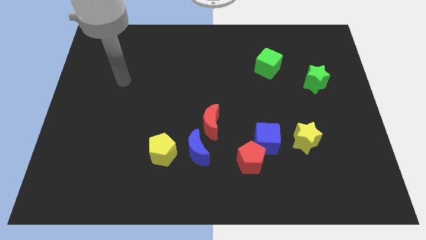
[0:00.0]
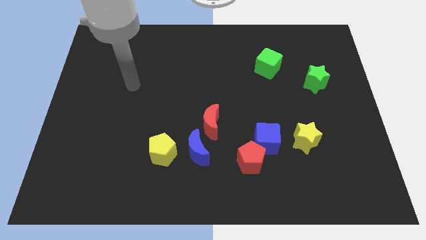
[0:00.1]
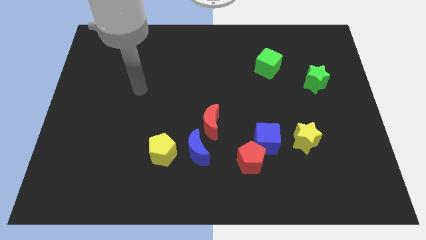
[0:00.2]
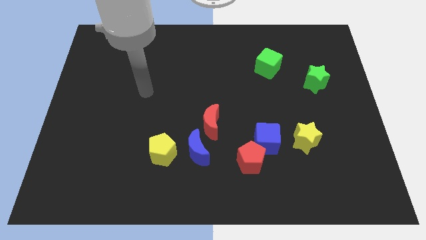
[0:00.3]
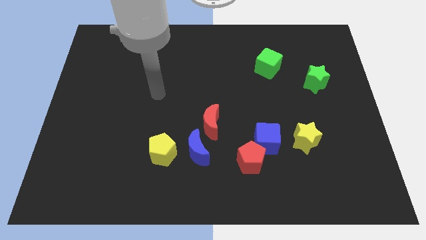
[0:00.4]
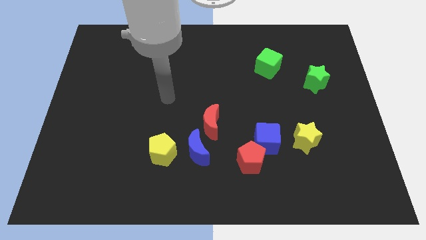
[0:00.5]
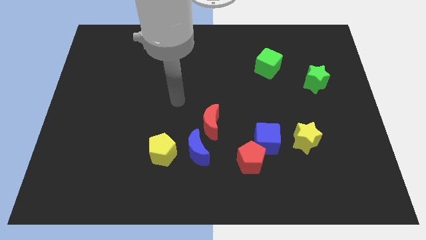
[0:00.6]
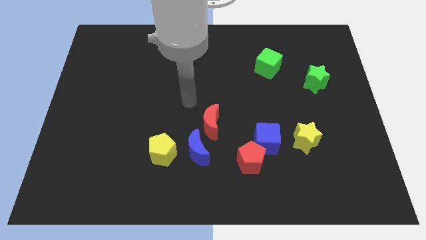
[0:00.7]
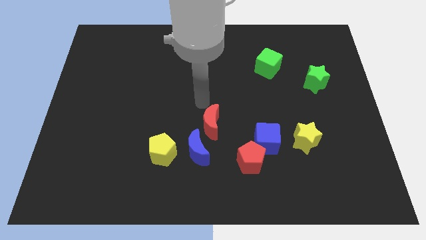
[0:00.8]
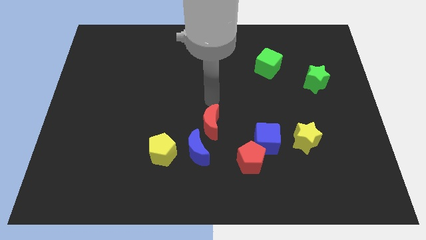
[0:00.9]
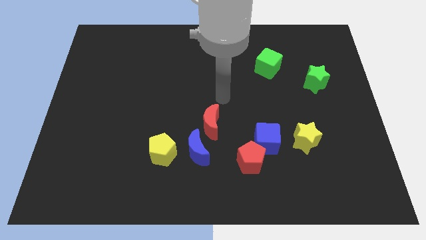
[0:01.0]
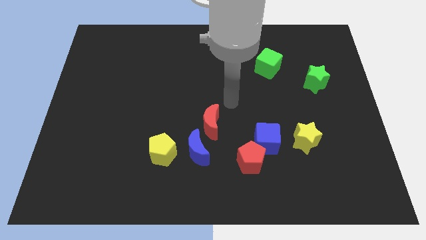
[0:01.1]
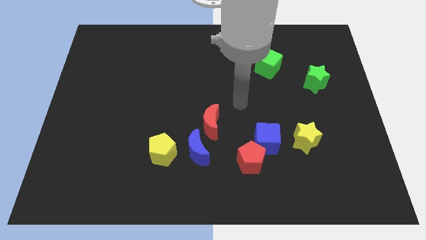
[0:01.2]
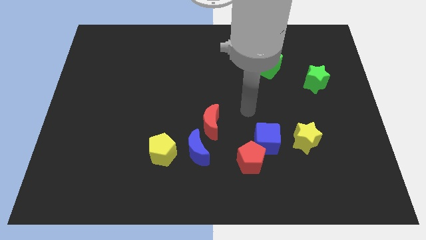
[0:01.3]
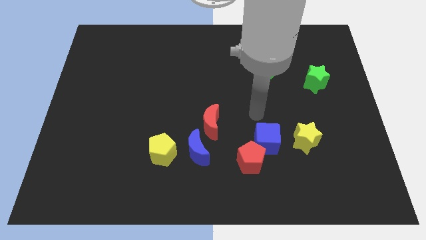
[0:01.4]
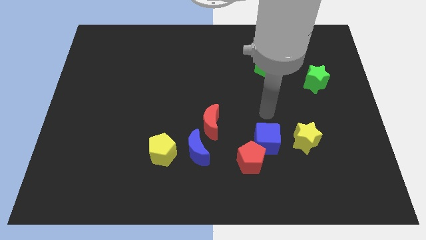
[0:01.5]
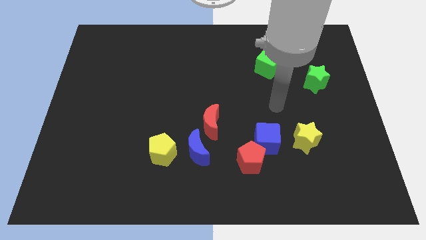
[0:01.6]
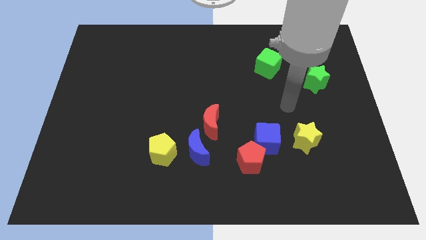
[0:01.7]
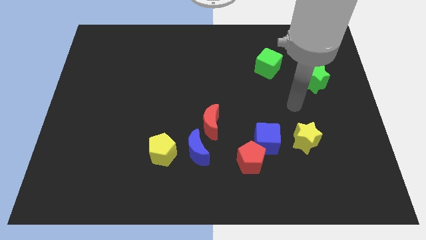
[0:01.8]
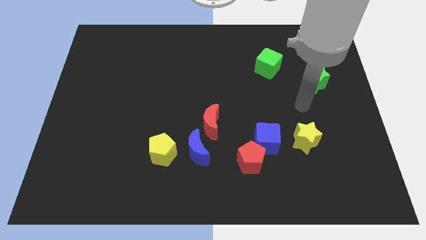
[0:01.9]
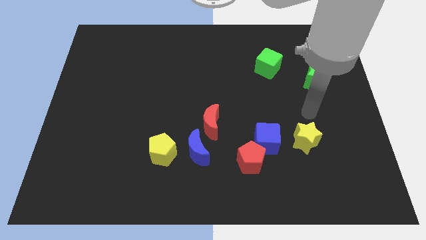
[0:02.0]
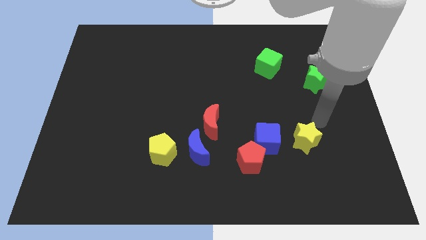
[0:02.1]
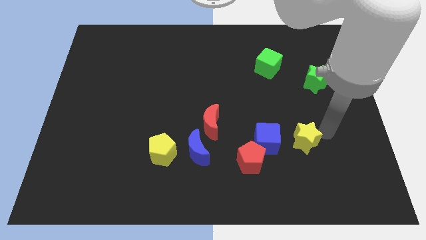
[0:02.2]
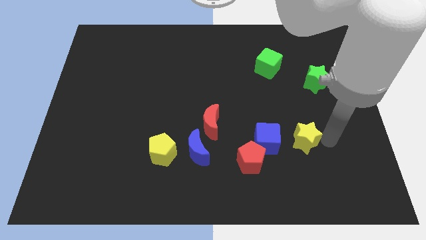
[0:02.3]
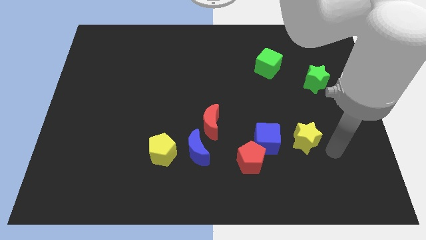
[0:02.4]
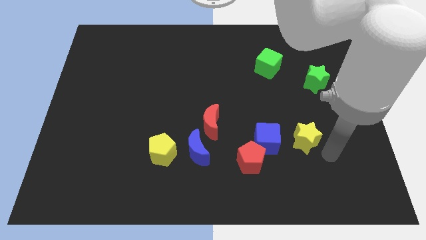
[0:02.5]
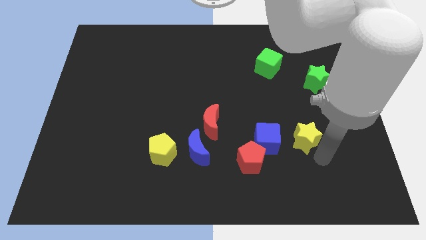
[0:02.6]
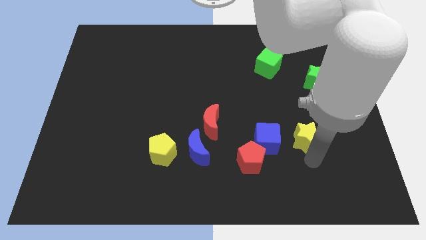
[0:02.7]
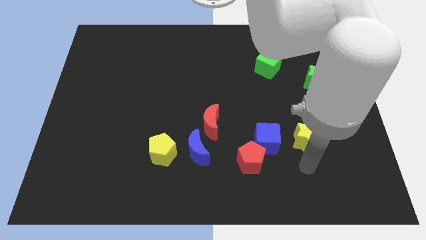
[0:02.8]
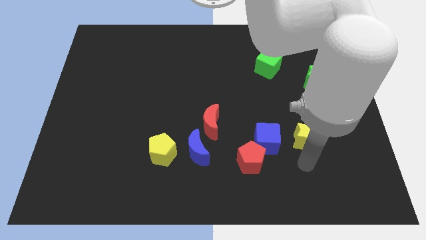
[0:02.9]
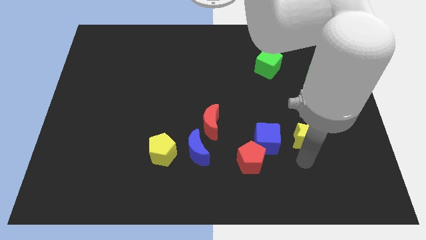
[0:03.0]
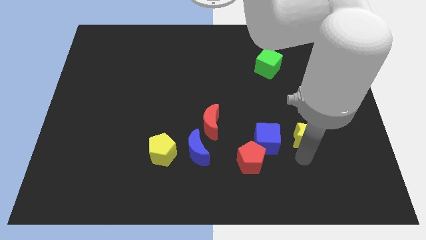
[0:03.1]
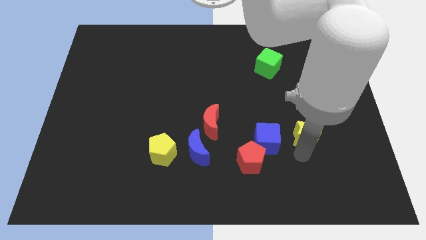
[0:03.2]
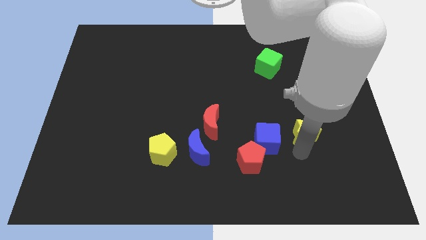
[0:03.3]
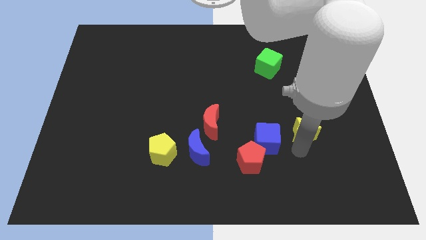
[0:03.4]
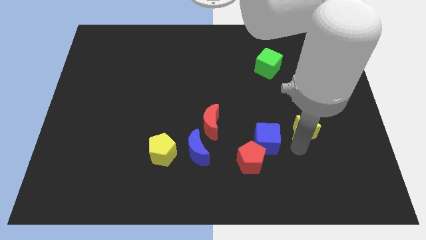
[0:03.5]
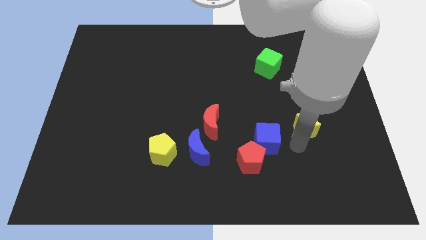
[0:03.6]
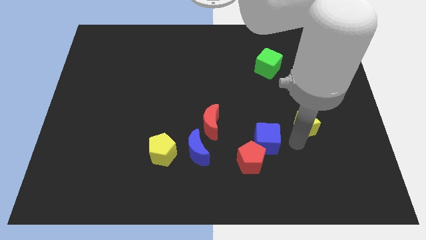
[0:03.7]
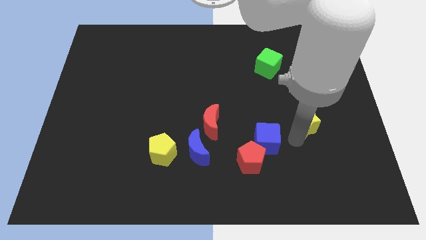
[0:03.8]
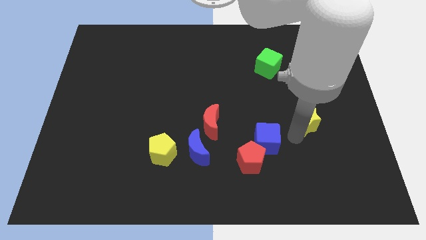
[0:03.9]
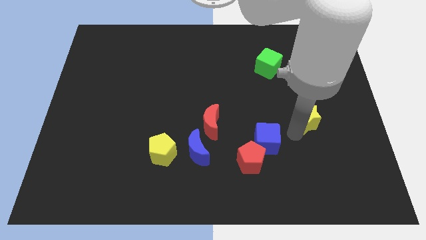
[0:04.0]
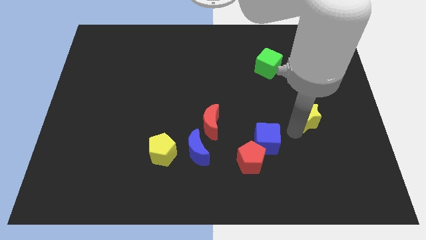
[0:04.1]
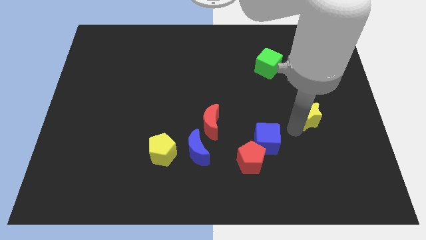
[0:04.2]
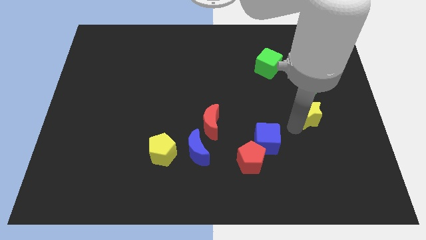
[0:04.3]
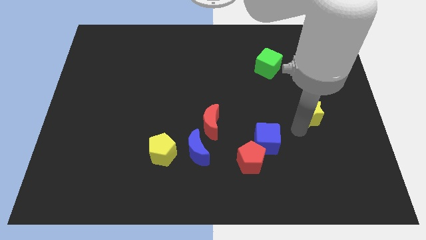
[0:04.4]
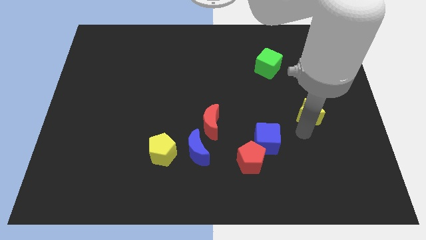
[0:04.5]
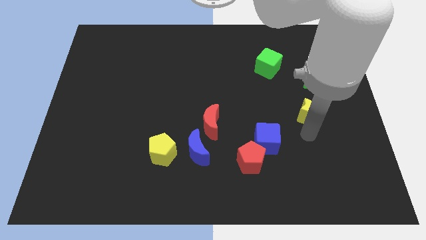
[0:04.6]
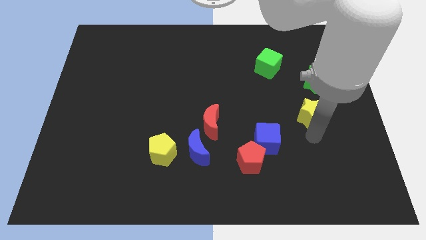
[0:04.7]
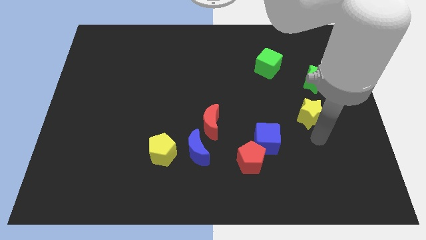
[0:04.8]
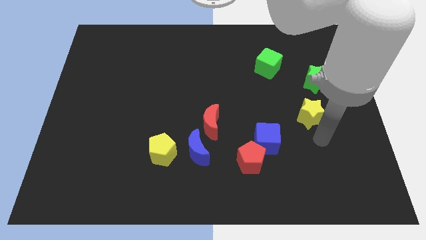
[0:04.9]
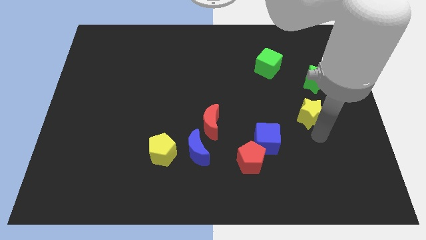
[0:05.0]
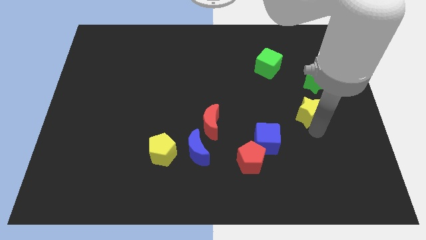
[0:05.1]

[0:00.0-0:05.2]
slightly move the yellow star up

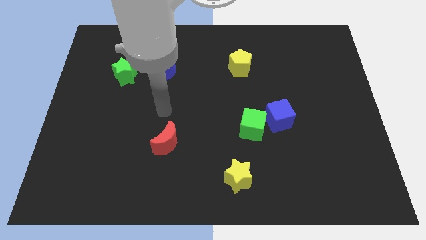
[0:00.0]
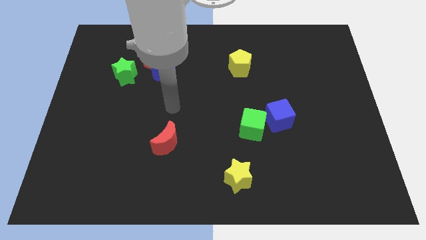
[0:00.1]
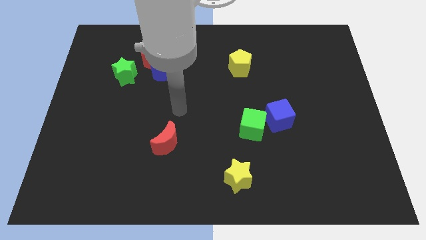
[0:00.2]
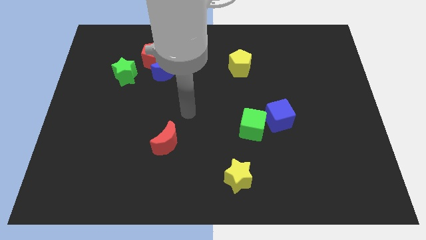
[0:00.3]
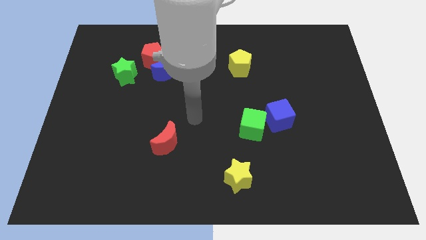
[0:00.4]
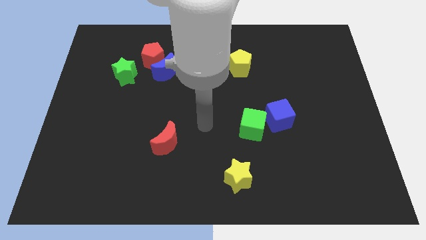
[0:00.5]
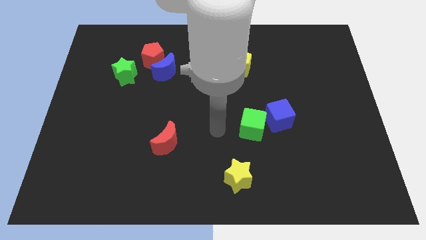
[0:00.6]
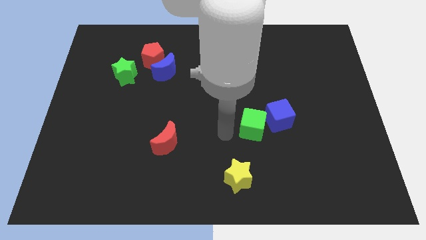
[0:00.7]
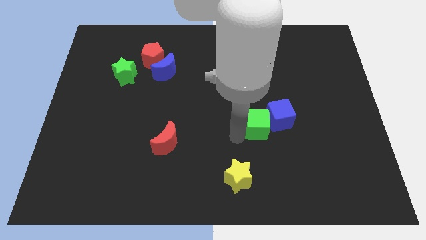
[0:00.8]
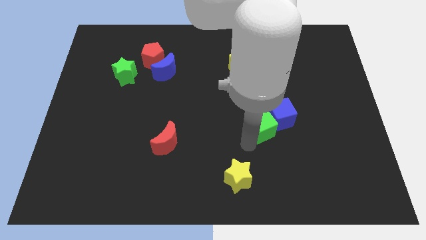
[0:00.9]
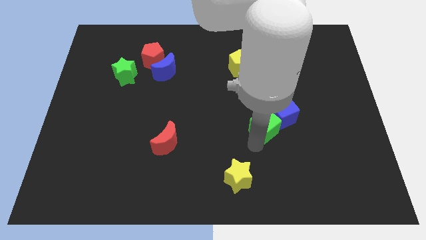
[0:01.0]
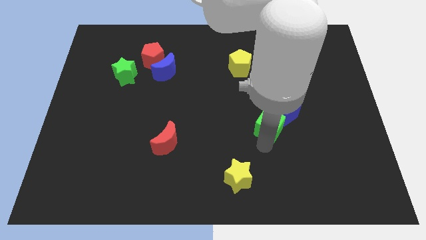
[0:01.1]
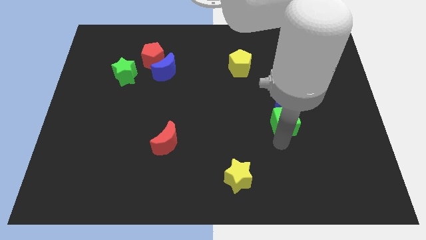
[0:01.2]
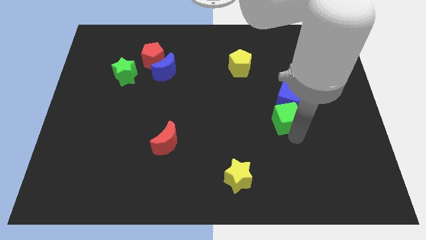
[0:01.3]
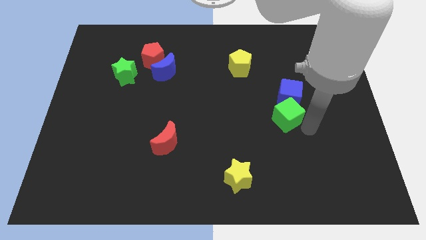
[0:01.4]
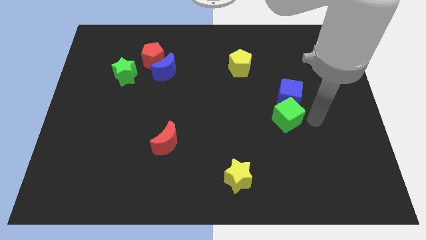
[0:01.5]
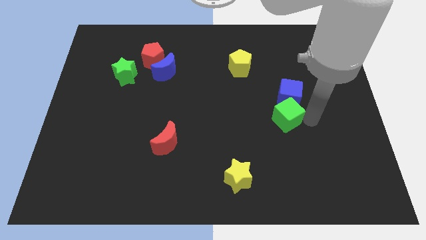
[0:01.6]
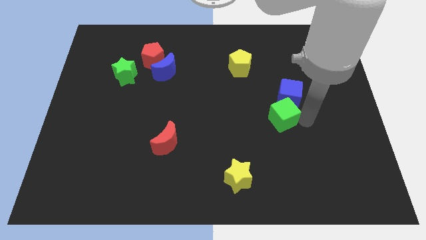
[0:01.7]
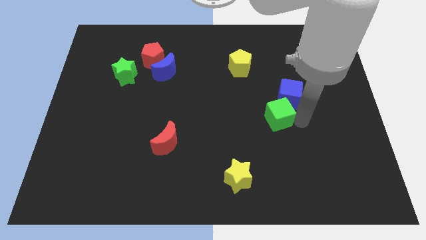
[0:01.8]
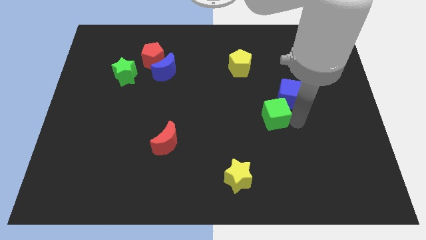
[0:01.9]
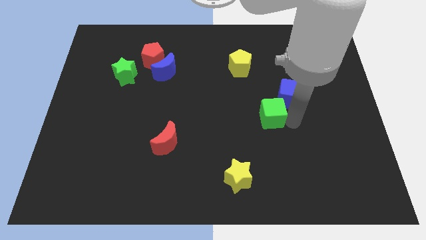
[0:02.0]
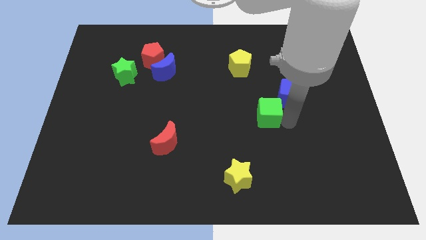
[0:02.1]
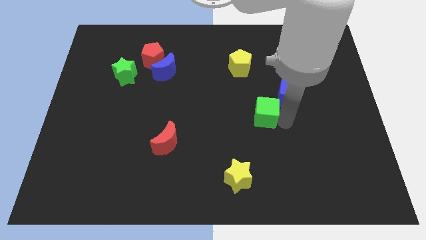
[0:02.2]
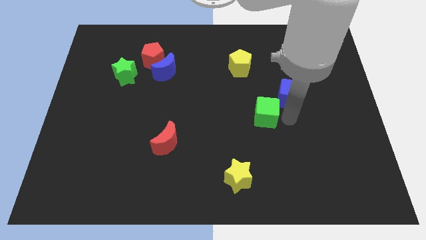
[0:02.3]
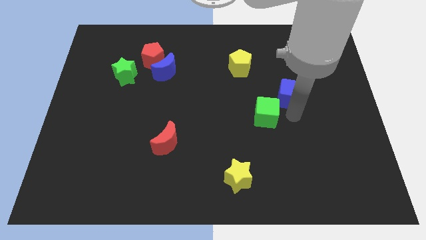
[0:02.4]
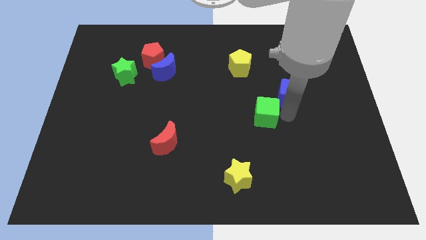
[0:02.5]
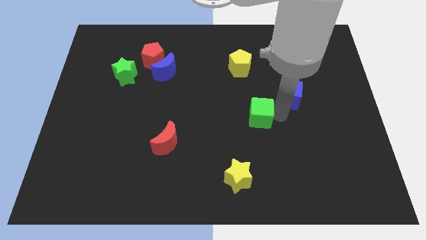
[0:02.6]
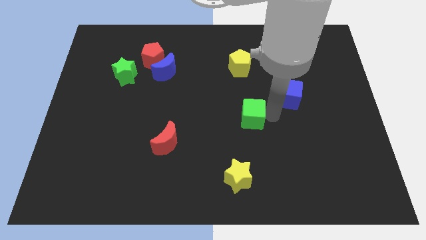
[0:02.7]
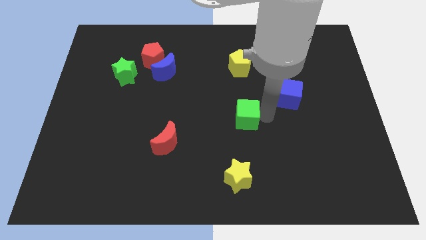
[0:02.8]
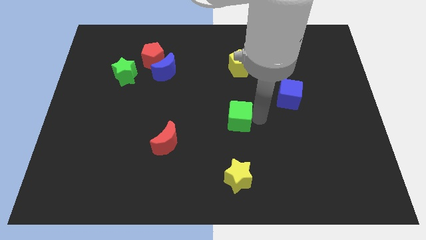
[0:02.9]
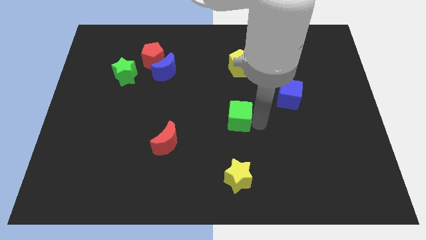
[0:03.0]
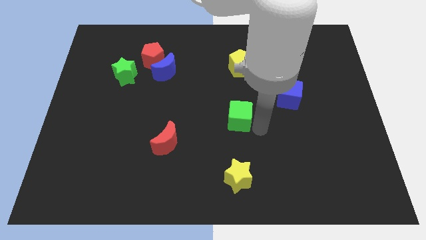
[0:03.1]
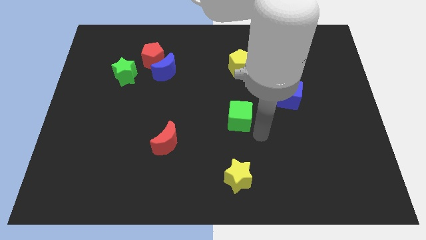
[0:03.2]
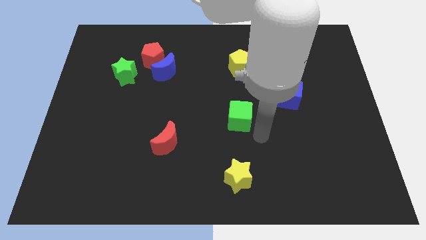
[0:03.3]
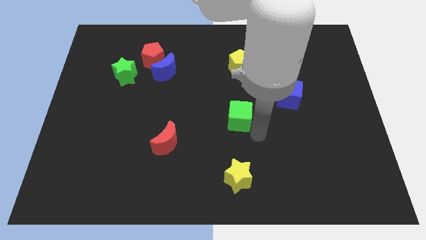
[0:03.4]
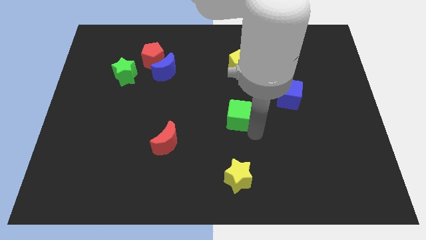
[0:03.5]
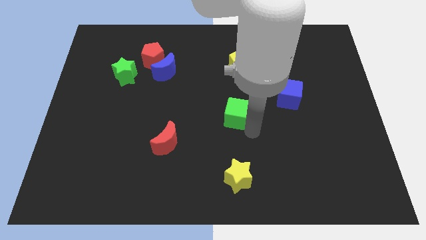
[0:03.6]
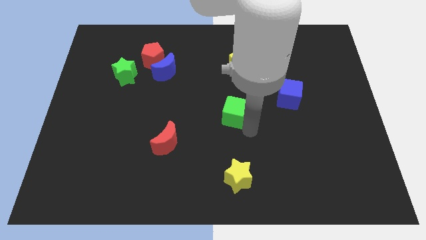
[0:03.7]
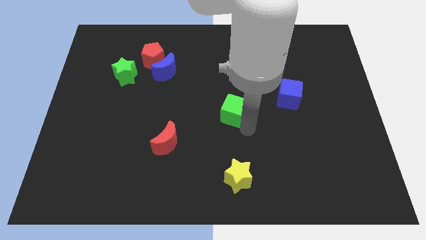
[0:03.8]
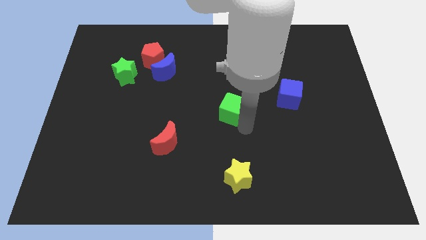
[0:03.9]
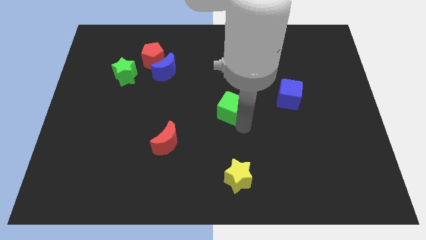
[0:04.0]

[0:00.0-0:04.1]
push the green cube diagonally upwards and left somewhat
